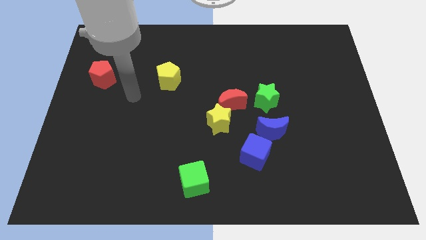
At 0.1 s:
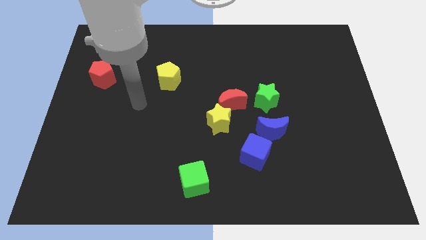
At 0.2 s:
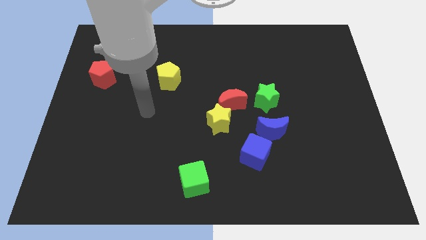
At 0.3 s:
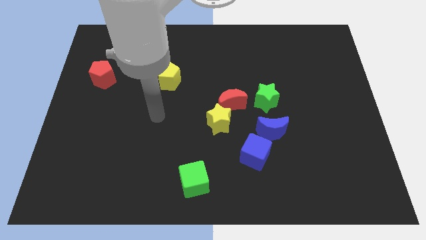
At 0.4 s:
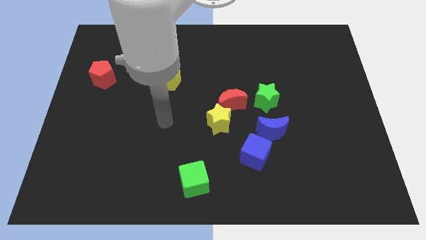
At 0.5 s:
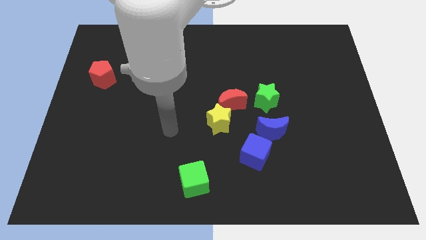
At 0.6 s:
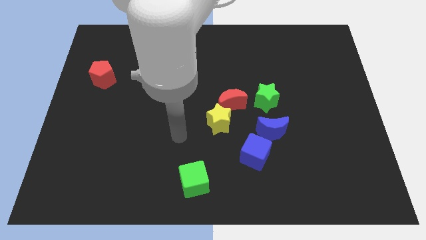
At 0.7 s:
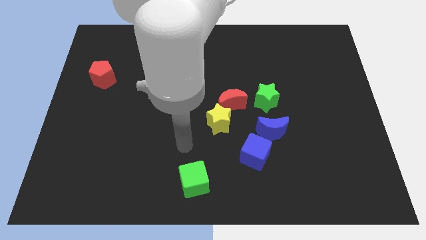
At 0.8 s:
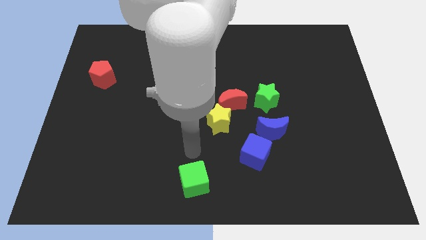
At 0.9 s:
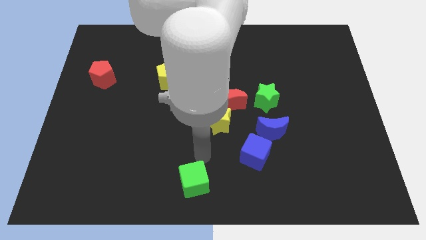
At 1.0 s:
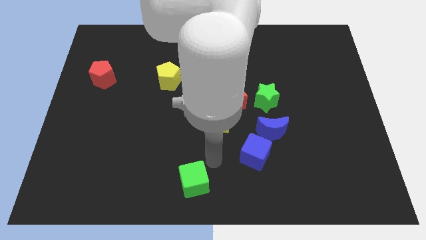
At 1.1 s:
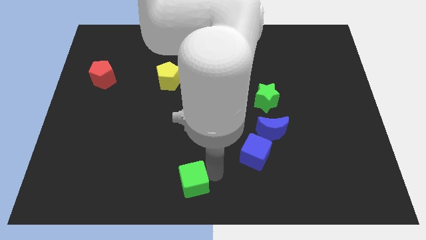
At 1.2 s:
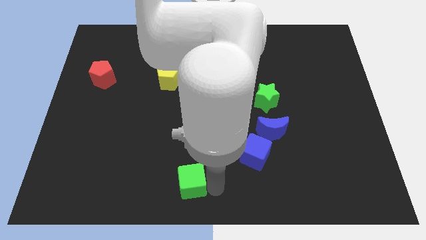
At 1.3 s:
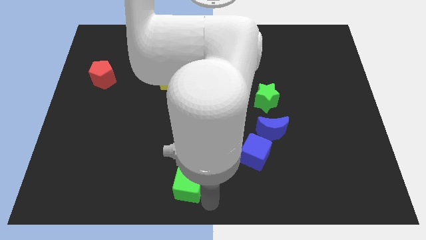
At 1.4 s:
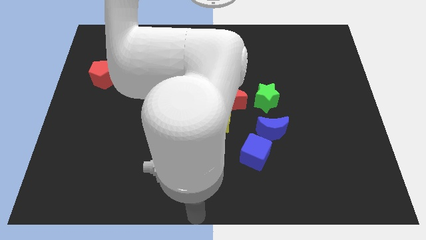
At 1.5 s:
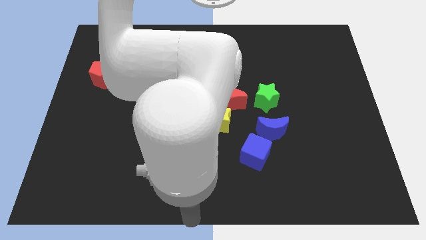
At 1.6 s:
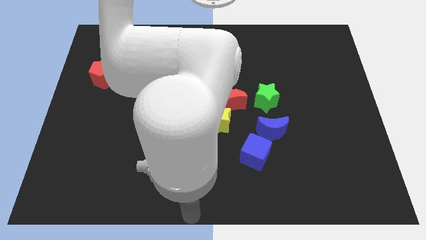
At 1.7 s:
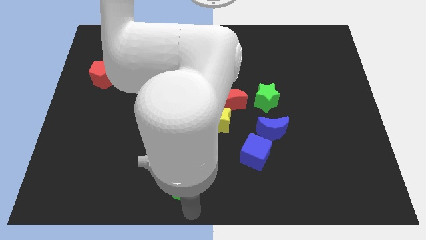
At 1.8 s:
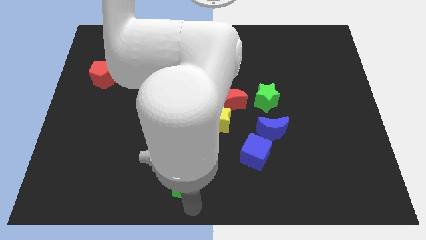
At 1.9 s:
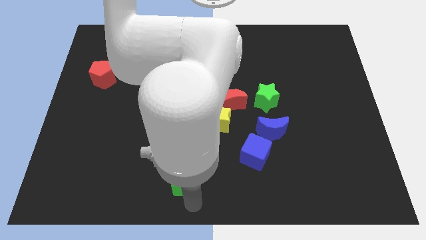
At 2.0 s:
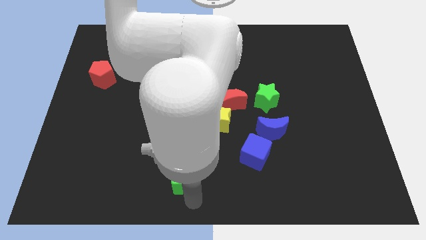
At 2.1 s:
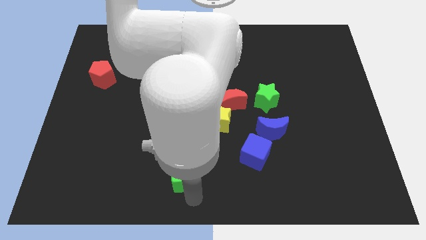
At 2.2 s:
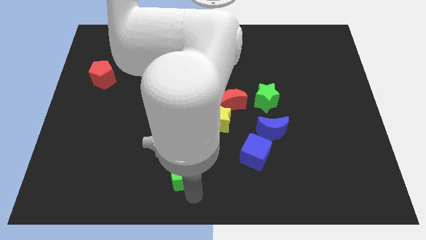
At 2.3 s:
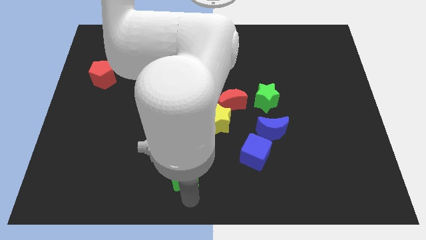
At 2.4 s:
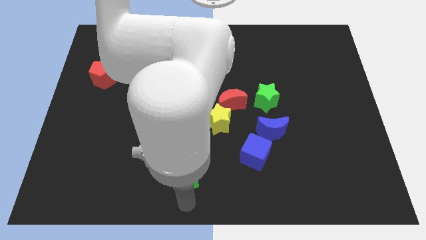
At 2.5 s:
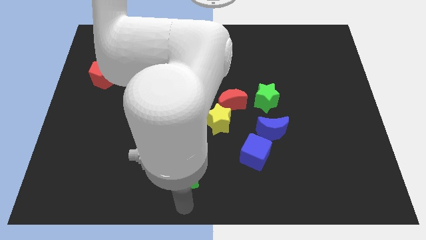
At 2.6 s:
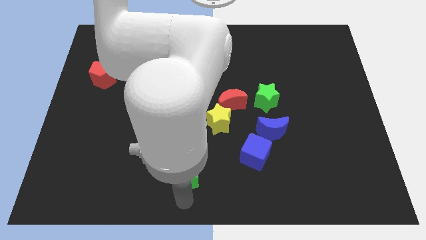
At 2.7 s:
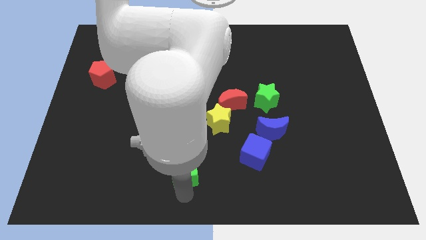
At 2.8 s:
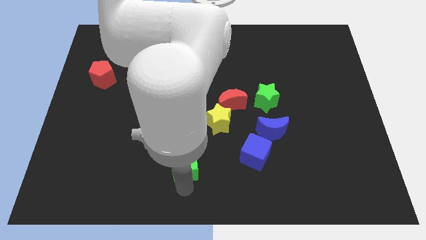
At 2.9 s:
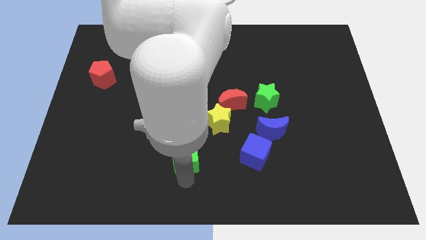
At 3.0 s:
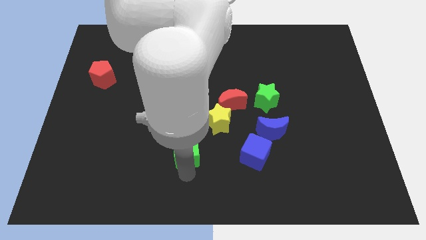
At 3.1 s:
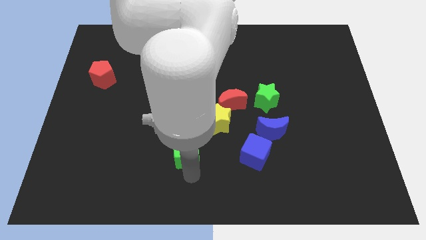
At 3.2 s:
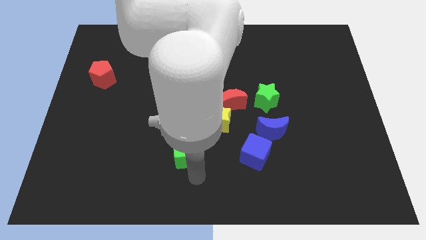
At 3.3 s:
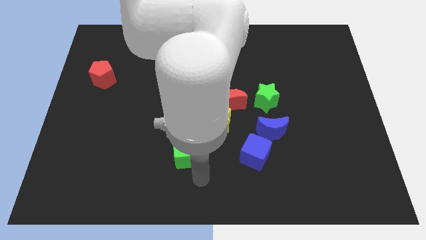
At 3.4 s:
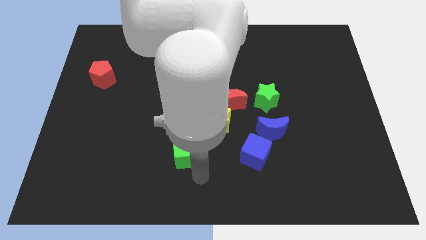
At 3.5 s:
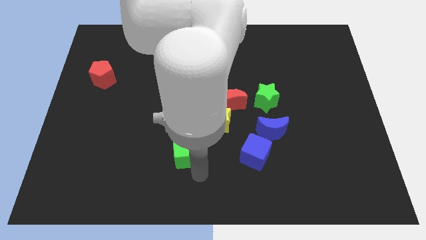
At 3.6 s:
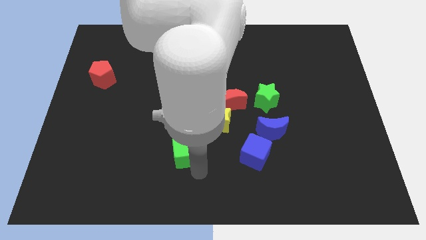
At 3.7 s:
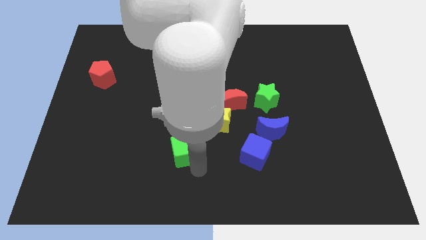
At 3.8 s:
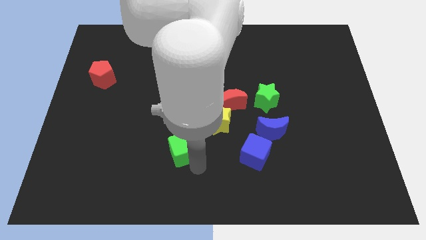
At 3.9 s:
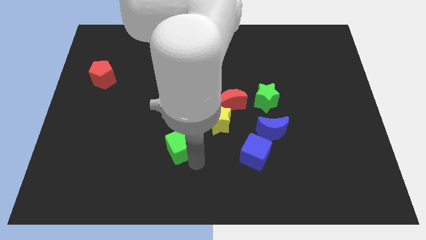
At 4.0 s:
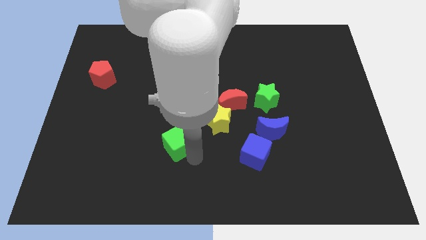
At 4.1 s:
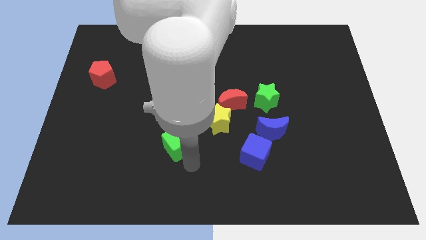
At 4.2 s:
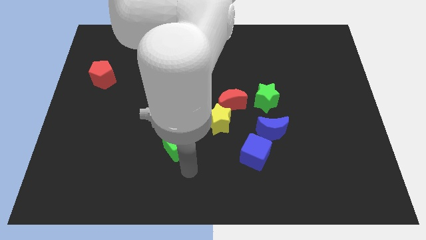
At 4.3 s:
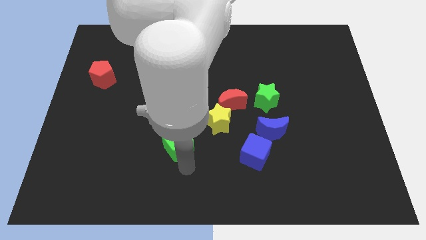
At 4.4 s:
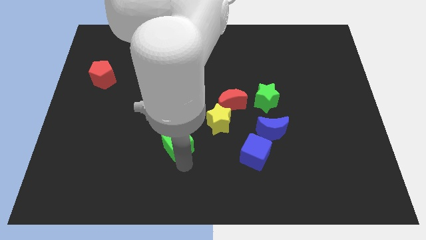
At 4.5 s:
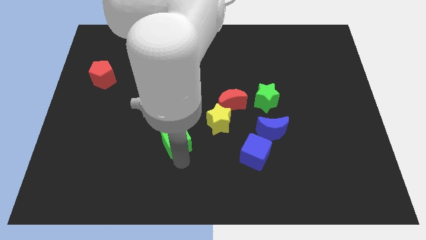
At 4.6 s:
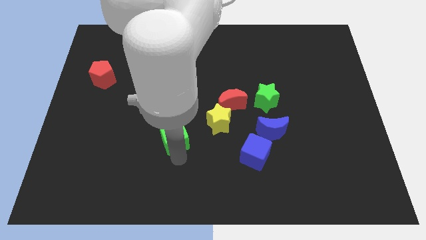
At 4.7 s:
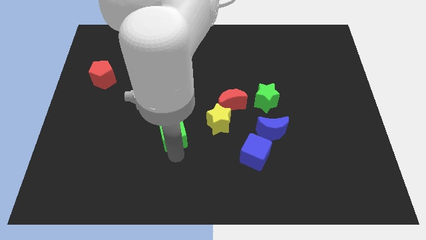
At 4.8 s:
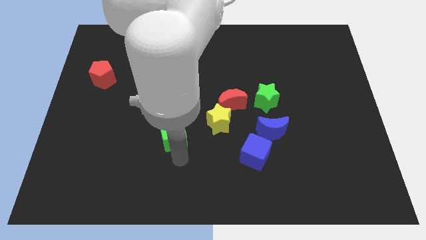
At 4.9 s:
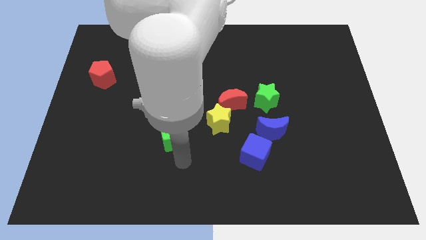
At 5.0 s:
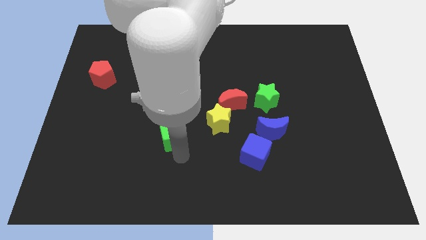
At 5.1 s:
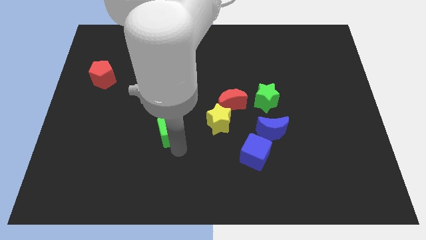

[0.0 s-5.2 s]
push the green cube to the bottom of the yellow pentagon

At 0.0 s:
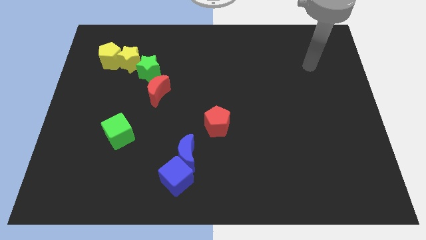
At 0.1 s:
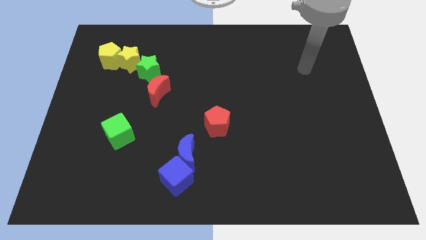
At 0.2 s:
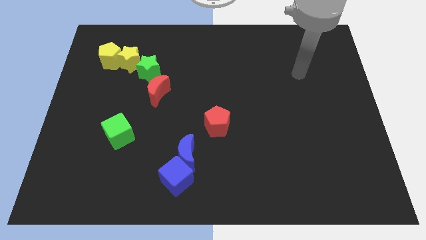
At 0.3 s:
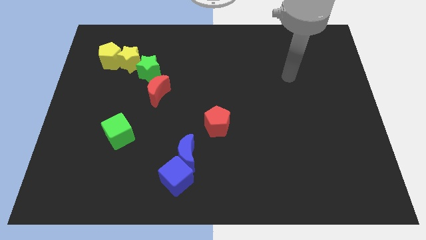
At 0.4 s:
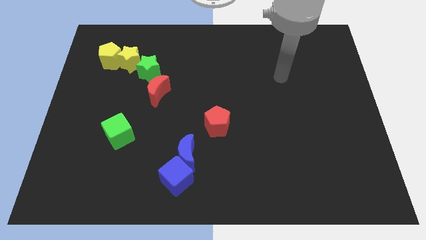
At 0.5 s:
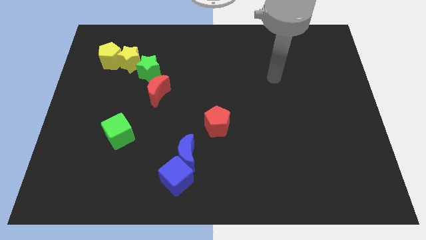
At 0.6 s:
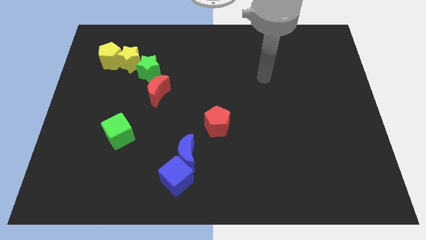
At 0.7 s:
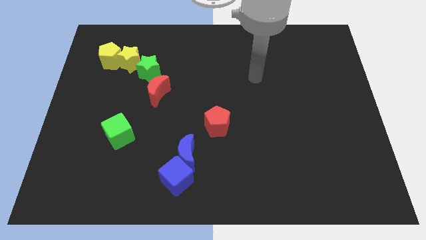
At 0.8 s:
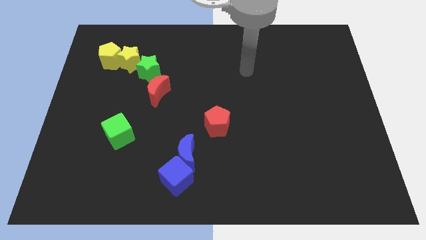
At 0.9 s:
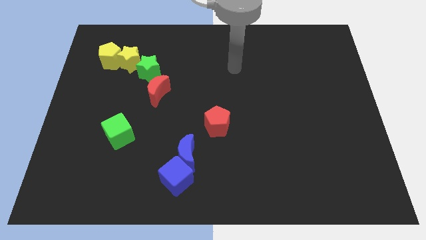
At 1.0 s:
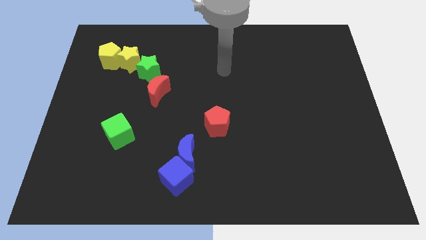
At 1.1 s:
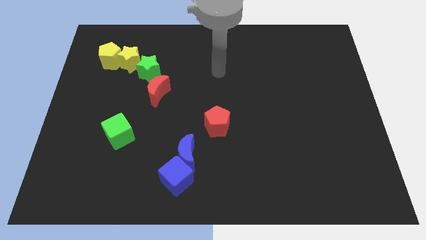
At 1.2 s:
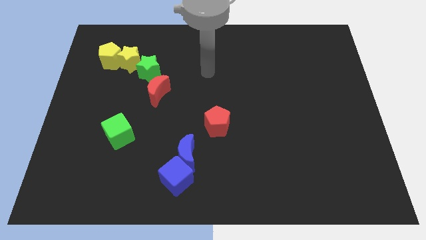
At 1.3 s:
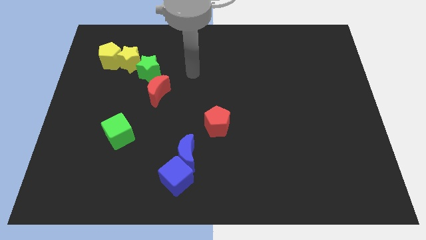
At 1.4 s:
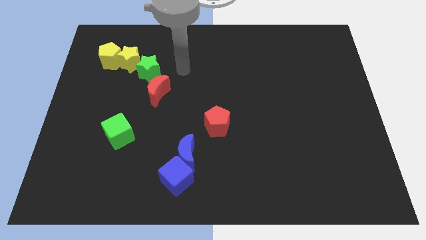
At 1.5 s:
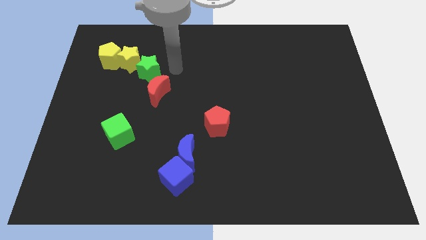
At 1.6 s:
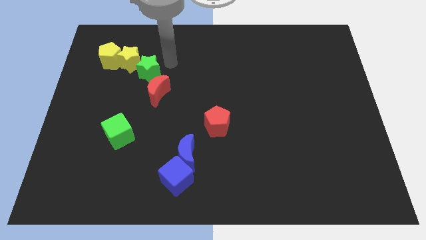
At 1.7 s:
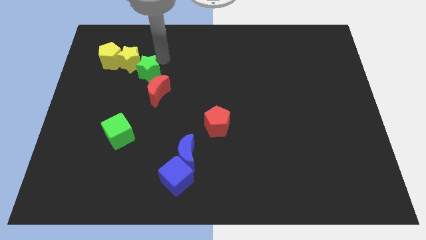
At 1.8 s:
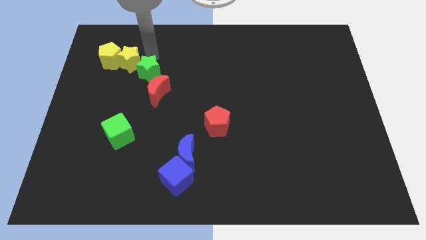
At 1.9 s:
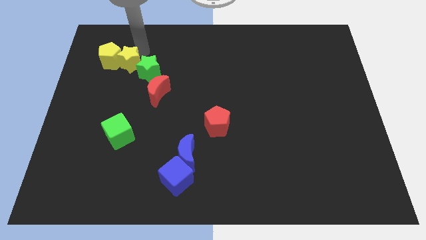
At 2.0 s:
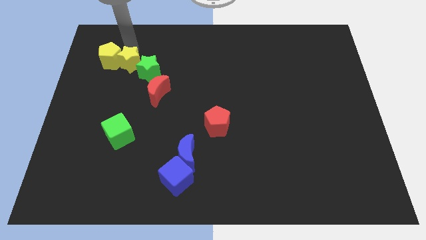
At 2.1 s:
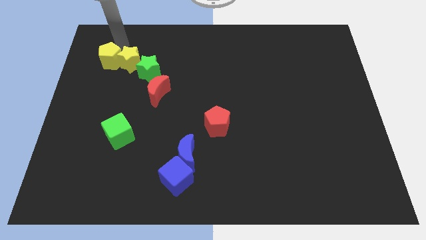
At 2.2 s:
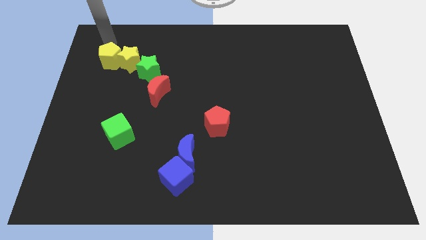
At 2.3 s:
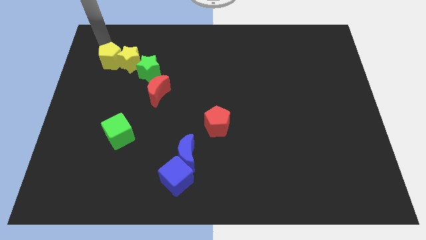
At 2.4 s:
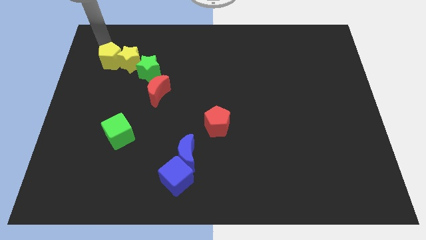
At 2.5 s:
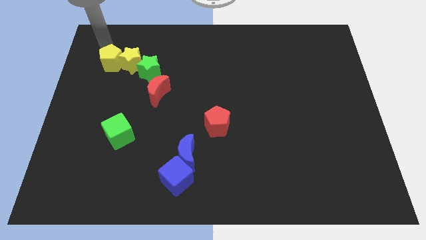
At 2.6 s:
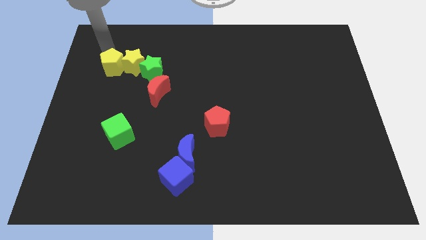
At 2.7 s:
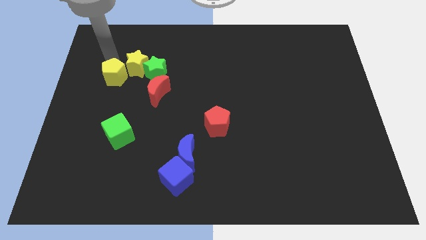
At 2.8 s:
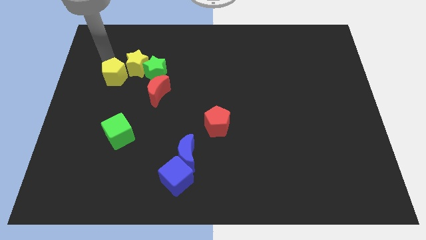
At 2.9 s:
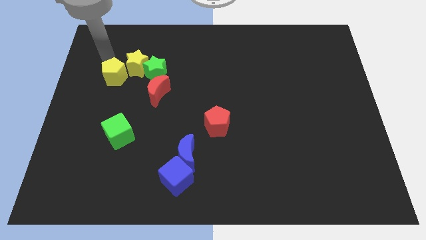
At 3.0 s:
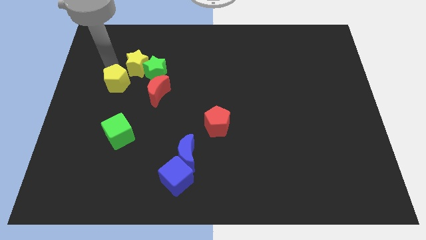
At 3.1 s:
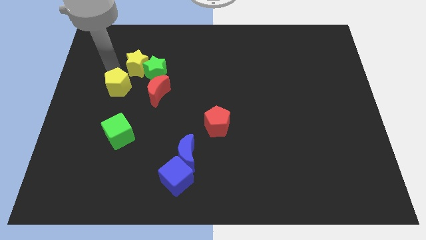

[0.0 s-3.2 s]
move the yellow pentagon to the top side of the green cube
